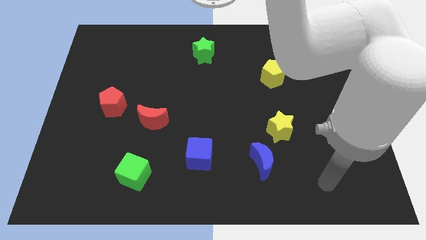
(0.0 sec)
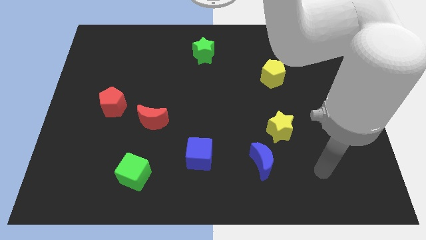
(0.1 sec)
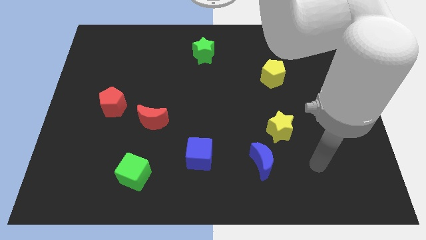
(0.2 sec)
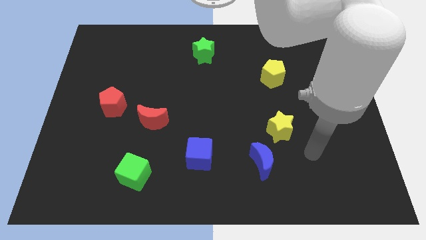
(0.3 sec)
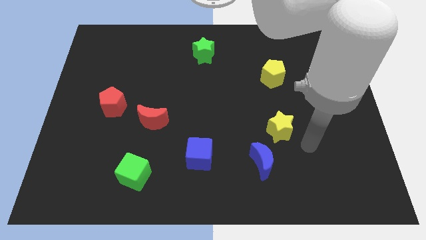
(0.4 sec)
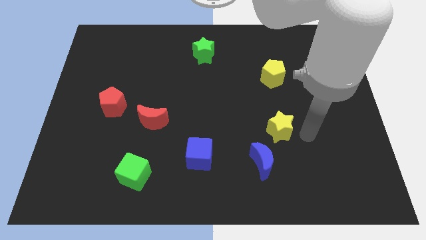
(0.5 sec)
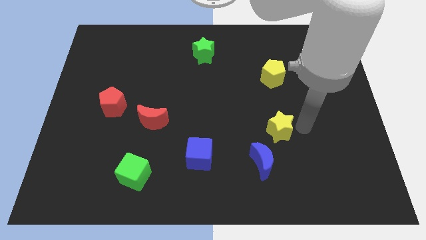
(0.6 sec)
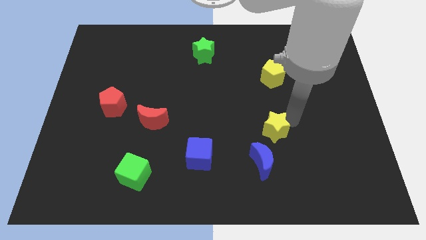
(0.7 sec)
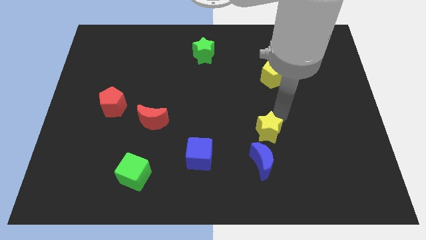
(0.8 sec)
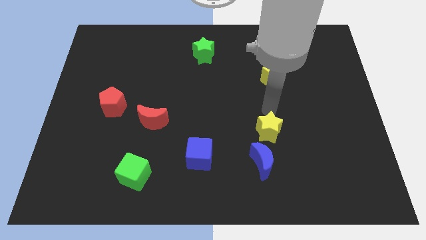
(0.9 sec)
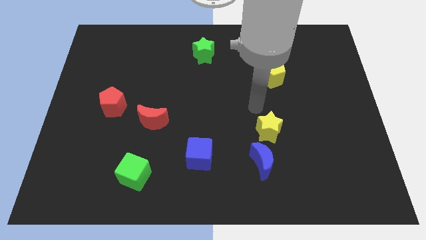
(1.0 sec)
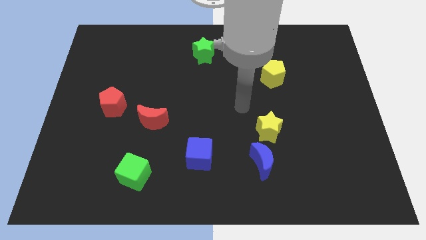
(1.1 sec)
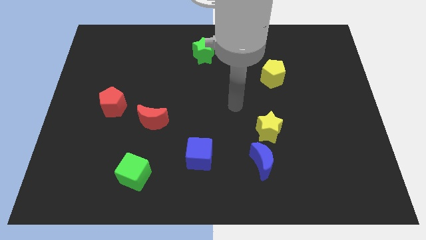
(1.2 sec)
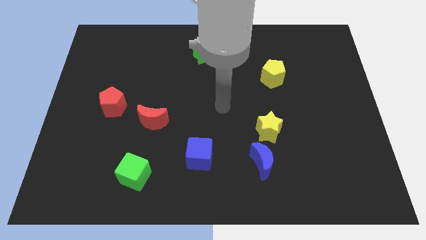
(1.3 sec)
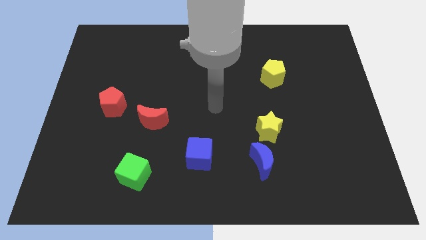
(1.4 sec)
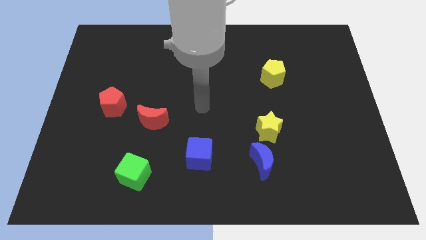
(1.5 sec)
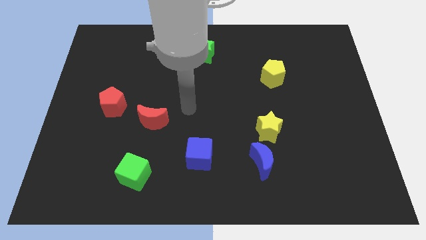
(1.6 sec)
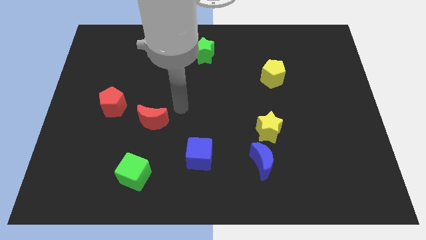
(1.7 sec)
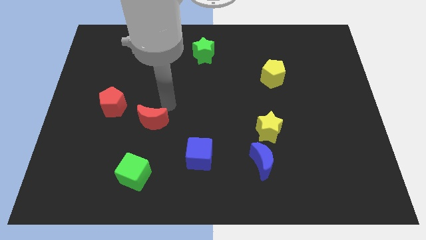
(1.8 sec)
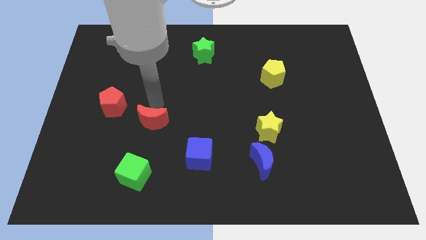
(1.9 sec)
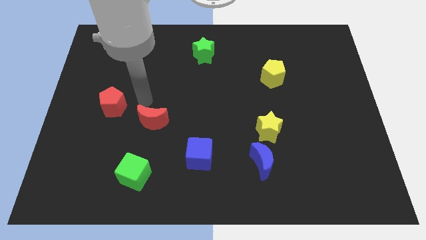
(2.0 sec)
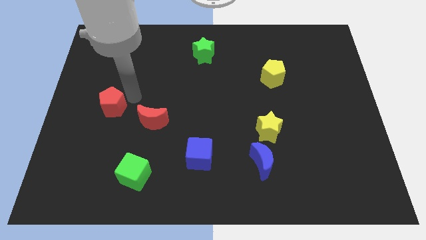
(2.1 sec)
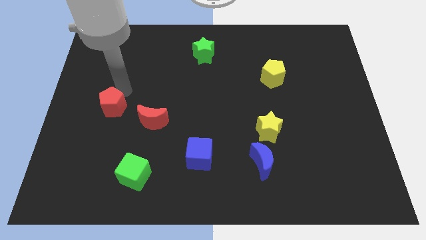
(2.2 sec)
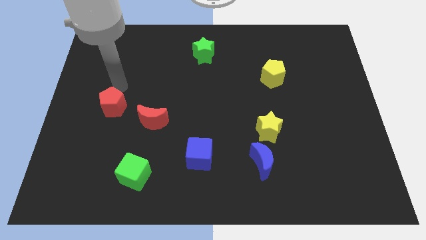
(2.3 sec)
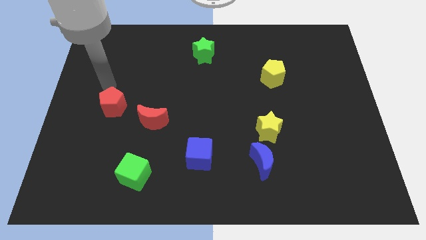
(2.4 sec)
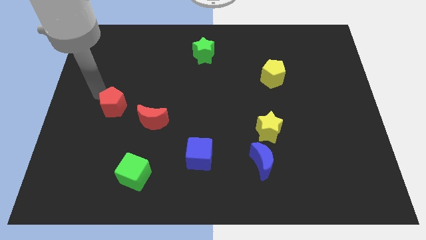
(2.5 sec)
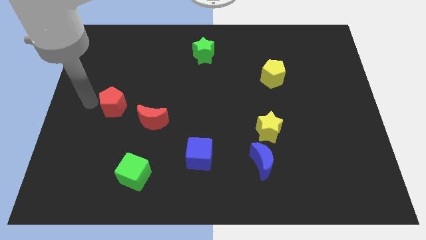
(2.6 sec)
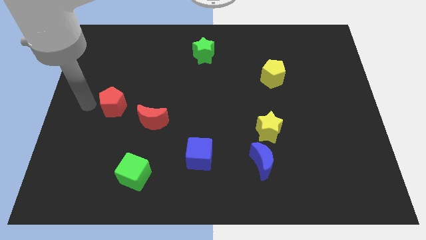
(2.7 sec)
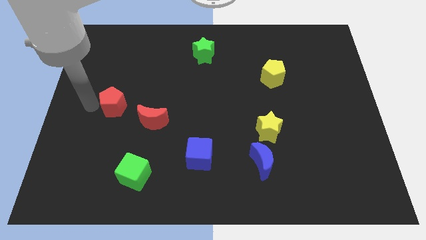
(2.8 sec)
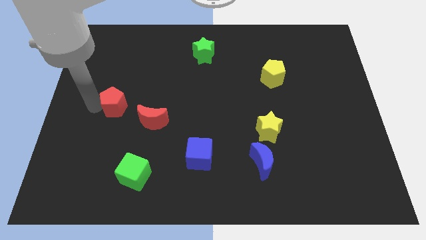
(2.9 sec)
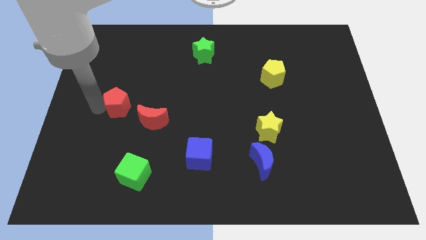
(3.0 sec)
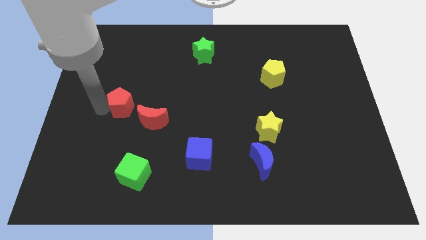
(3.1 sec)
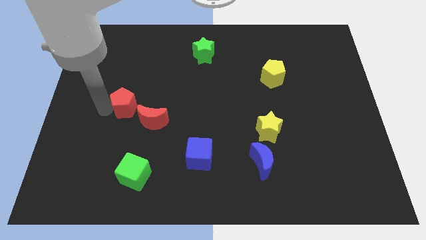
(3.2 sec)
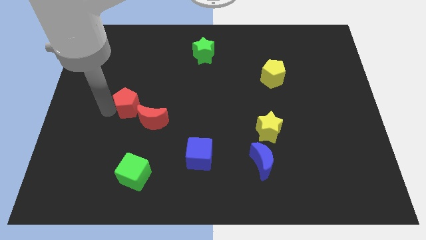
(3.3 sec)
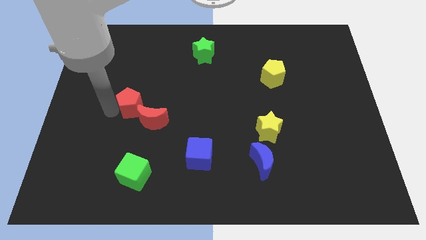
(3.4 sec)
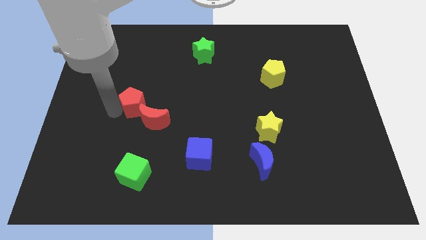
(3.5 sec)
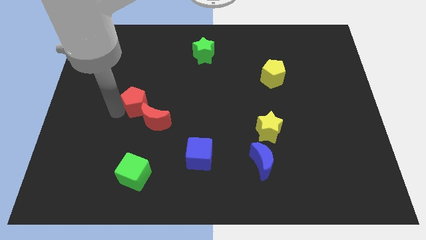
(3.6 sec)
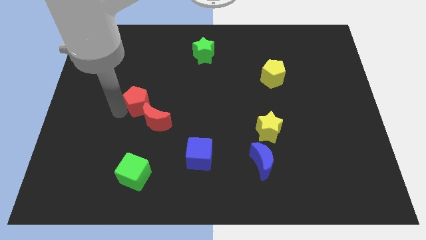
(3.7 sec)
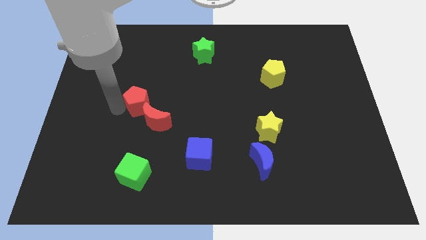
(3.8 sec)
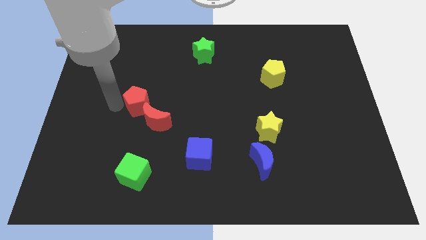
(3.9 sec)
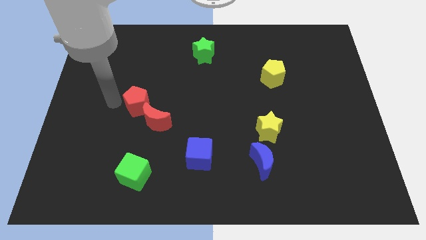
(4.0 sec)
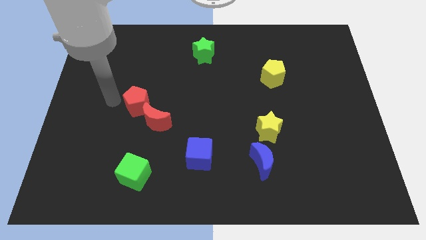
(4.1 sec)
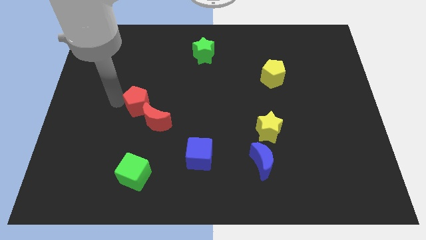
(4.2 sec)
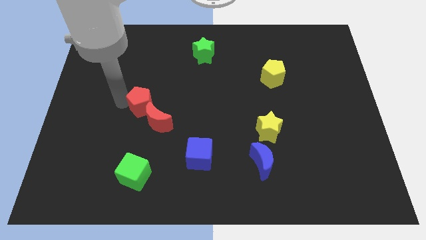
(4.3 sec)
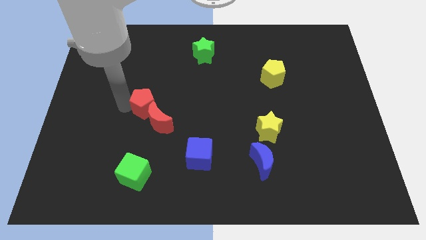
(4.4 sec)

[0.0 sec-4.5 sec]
slightly push the red pentagon to the right

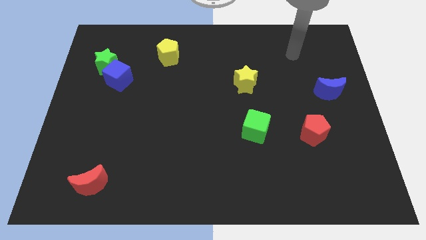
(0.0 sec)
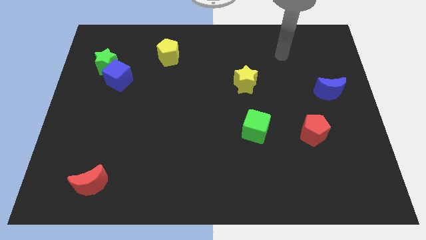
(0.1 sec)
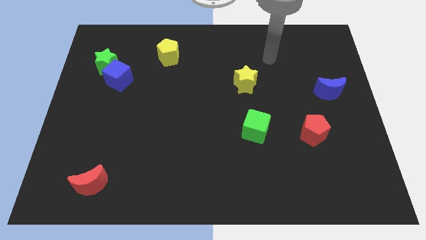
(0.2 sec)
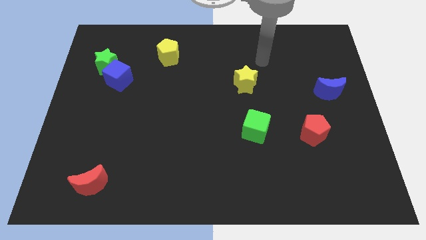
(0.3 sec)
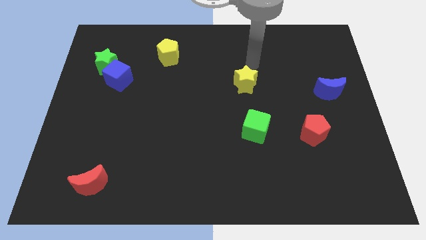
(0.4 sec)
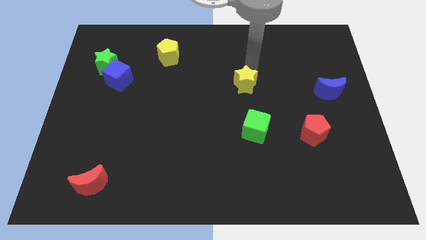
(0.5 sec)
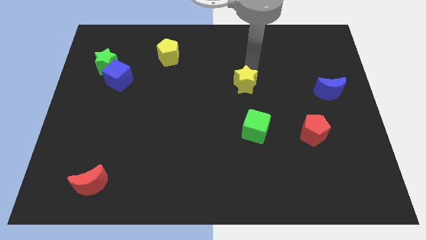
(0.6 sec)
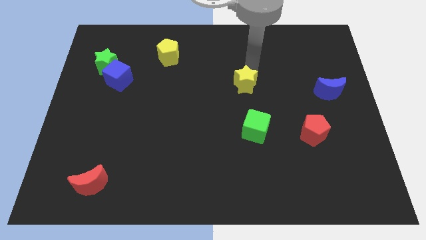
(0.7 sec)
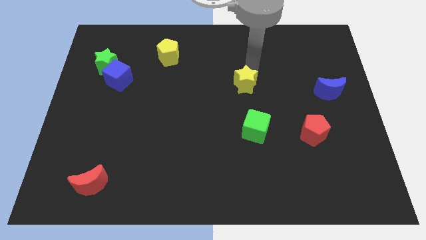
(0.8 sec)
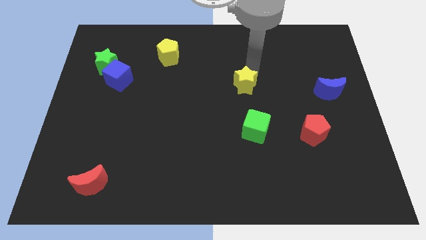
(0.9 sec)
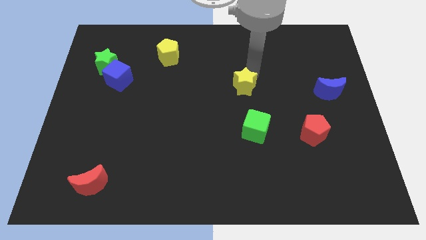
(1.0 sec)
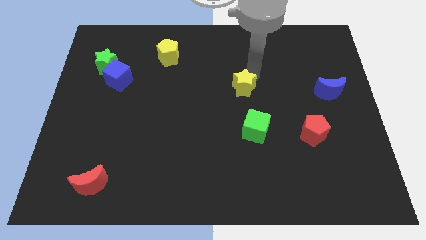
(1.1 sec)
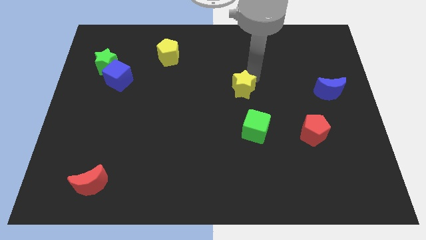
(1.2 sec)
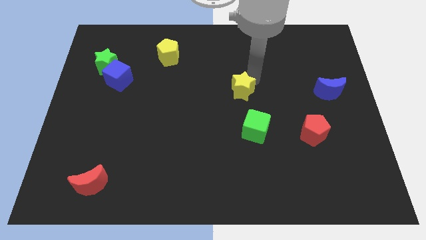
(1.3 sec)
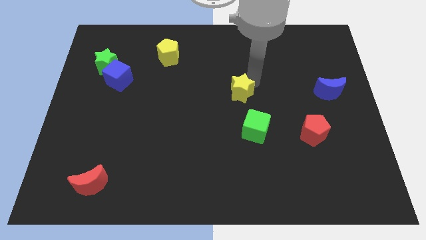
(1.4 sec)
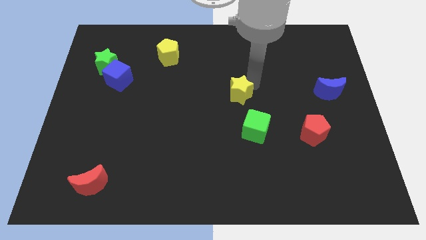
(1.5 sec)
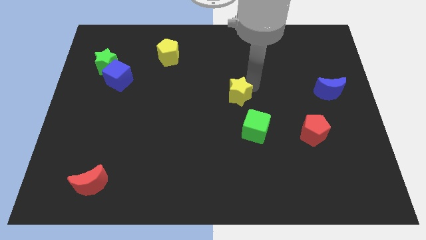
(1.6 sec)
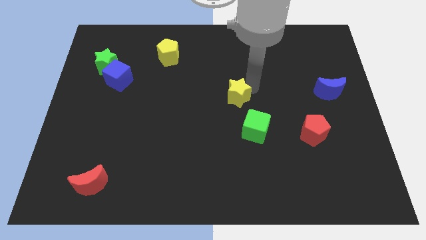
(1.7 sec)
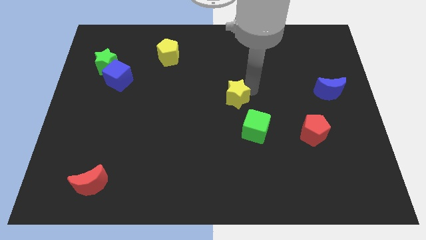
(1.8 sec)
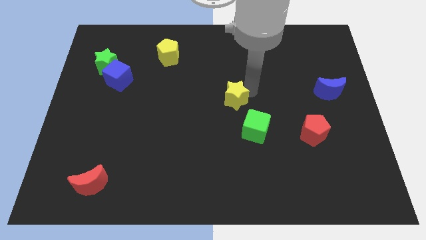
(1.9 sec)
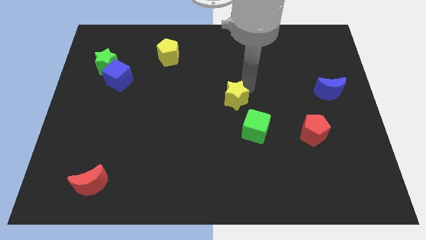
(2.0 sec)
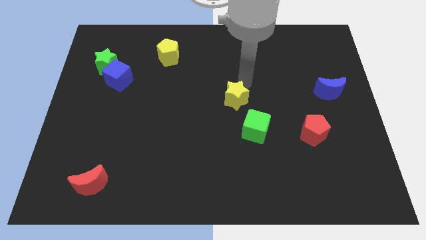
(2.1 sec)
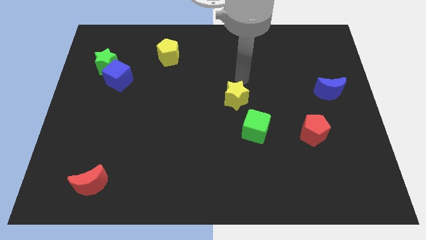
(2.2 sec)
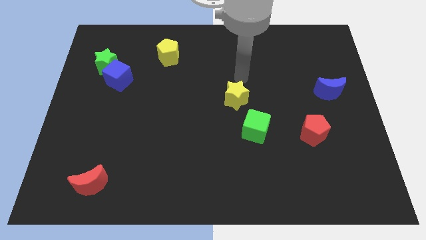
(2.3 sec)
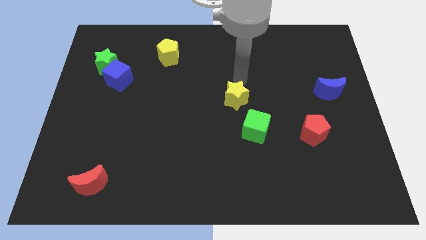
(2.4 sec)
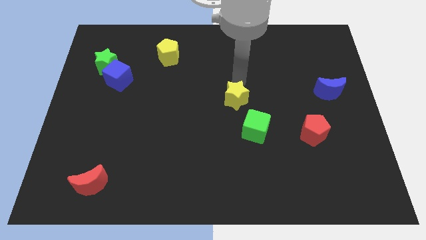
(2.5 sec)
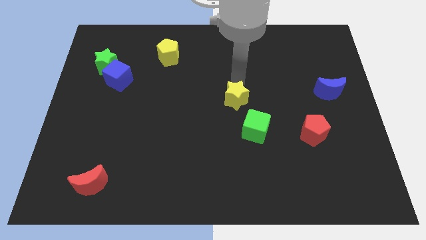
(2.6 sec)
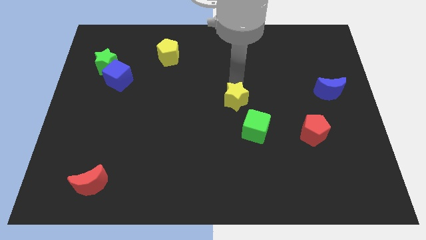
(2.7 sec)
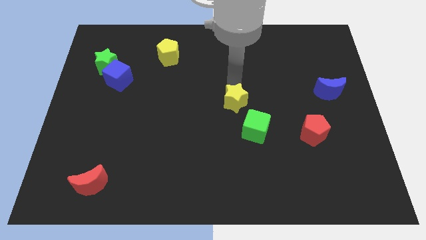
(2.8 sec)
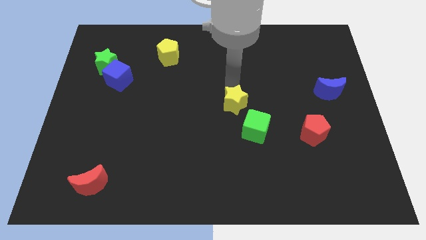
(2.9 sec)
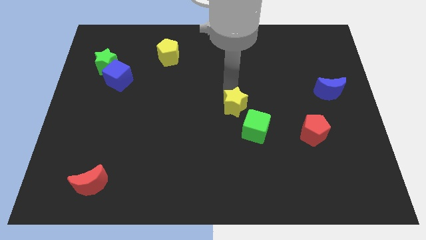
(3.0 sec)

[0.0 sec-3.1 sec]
move the yellow star downwards a little

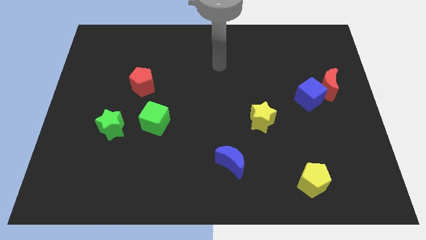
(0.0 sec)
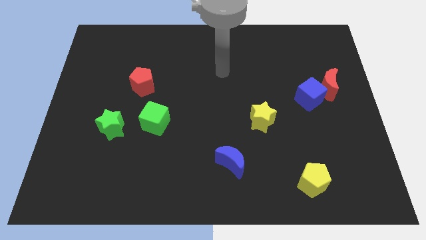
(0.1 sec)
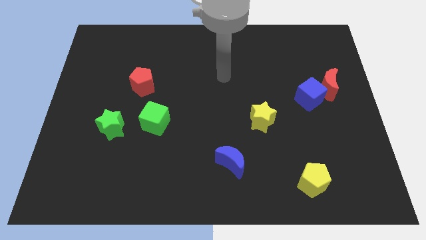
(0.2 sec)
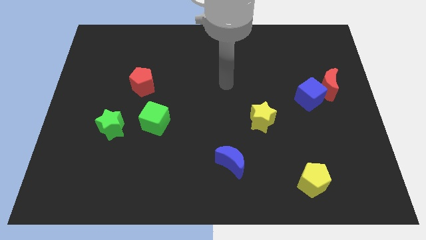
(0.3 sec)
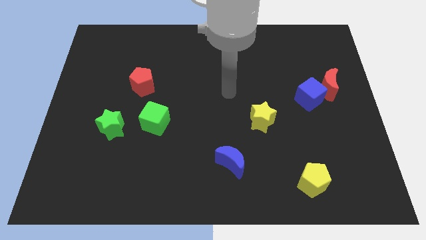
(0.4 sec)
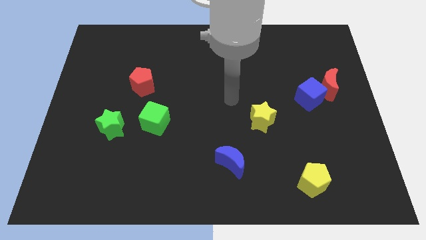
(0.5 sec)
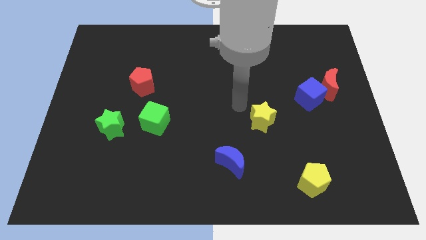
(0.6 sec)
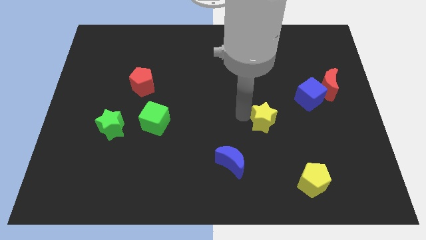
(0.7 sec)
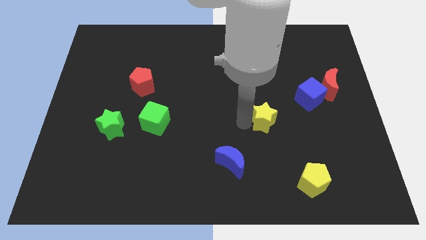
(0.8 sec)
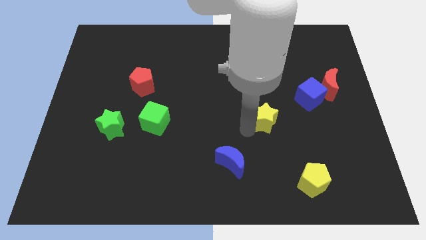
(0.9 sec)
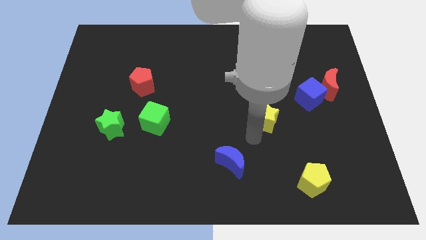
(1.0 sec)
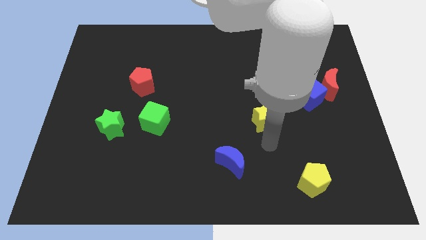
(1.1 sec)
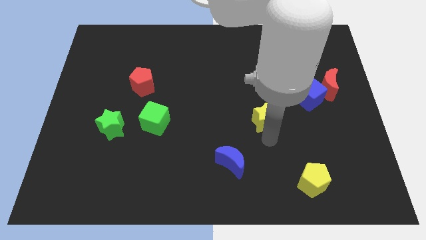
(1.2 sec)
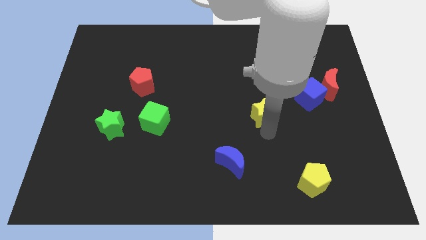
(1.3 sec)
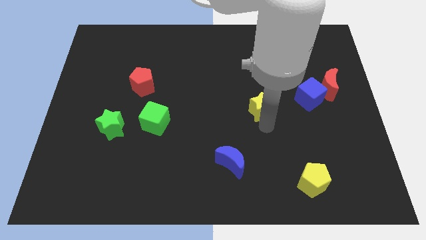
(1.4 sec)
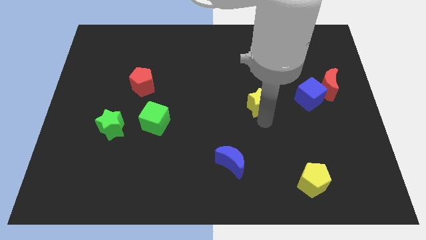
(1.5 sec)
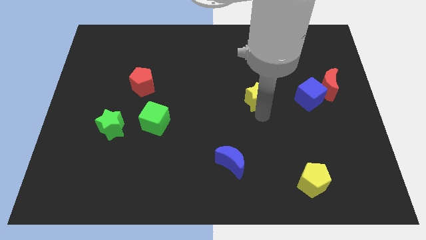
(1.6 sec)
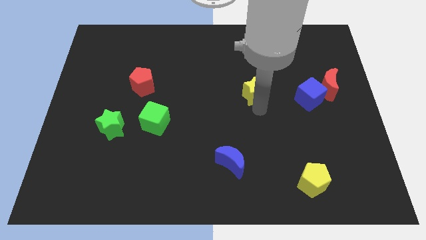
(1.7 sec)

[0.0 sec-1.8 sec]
push the yellow star a little upwards
